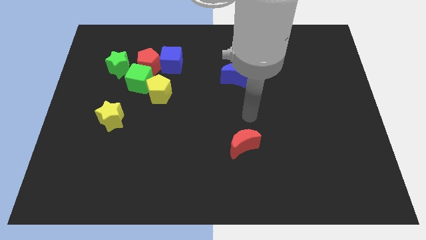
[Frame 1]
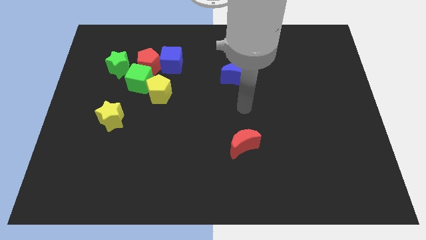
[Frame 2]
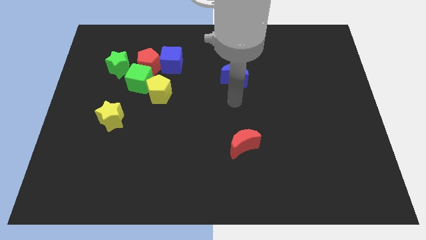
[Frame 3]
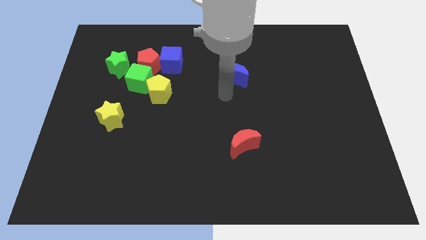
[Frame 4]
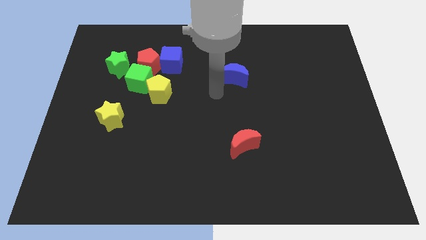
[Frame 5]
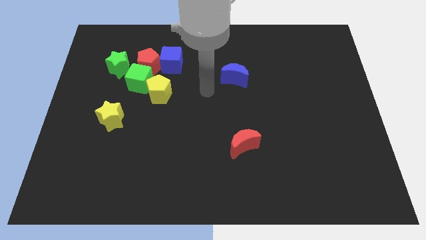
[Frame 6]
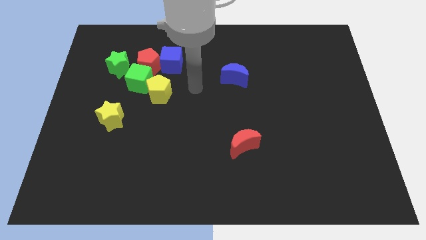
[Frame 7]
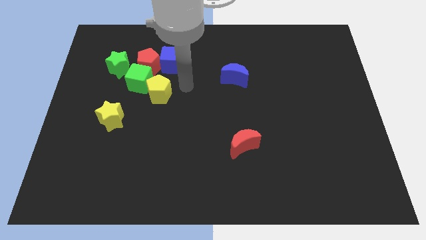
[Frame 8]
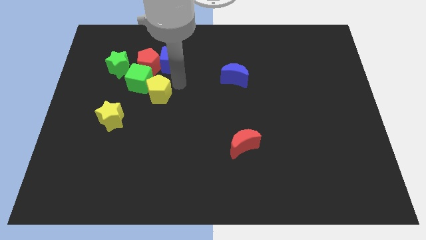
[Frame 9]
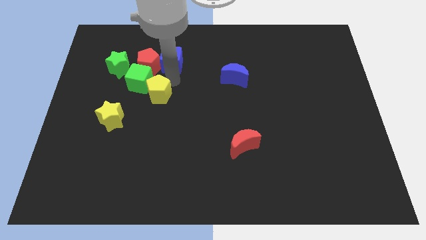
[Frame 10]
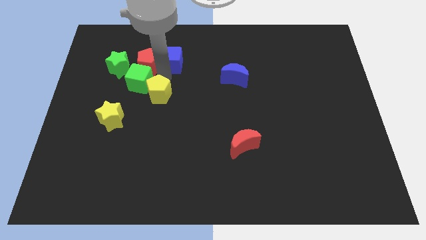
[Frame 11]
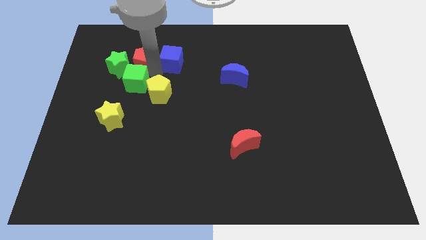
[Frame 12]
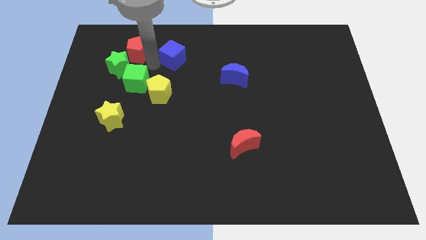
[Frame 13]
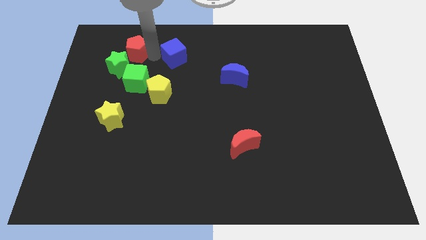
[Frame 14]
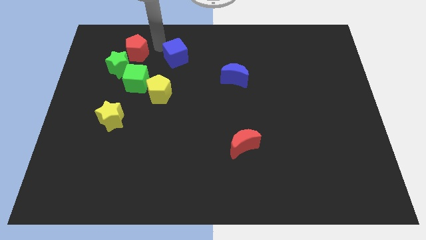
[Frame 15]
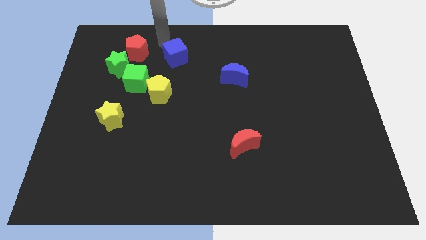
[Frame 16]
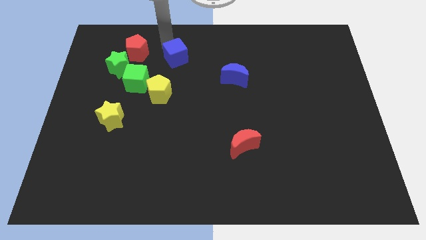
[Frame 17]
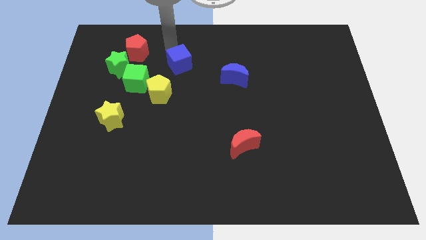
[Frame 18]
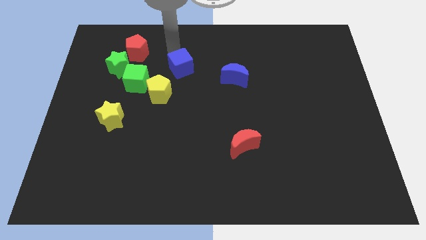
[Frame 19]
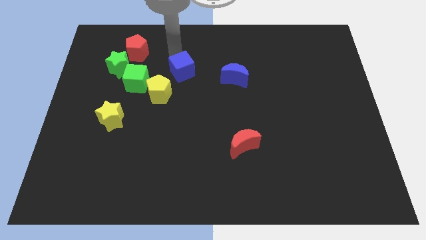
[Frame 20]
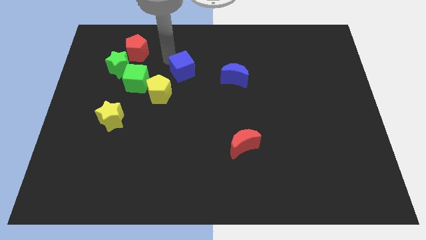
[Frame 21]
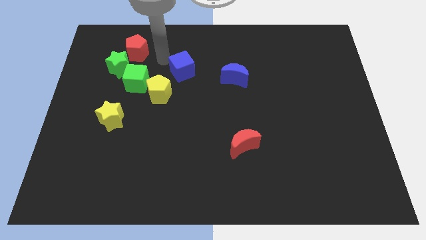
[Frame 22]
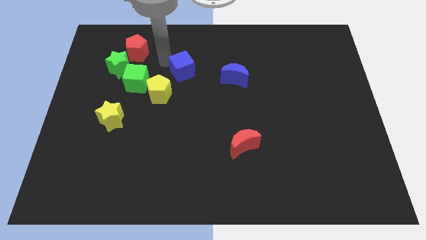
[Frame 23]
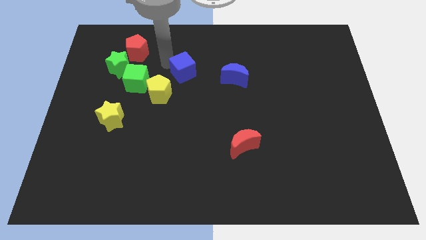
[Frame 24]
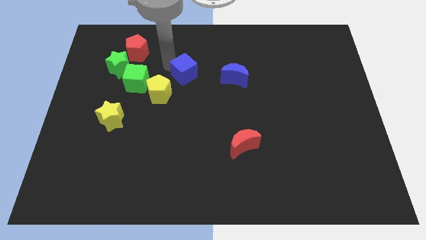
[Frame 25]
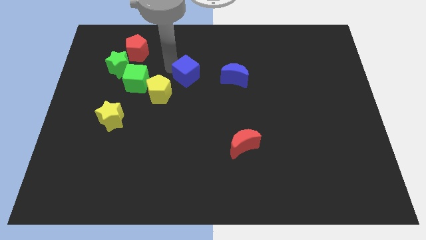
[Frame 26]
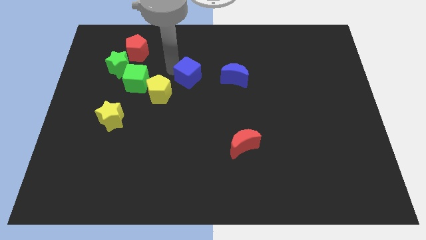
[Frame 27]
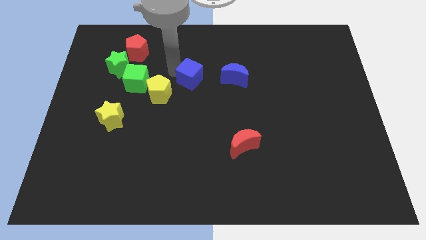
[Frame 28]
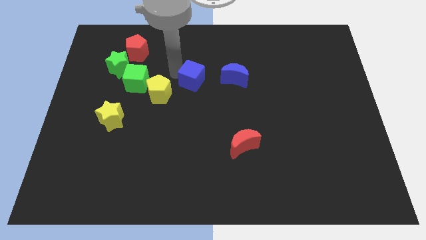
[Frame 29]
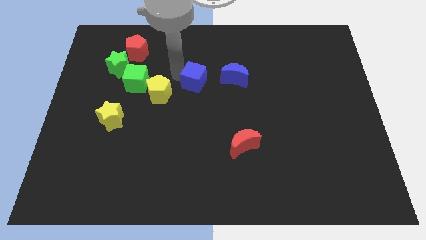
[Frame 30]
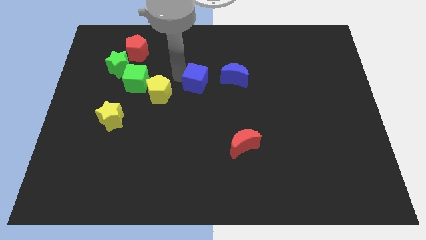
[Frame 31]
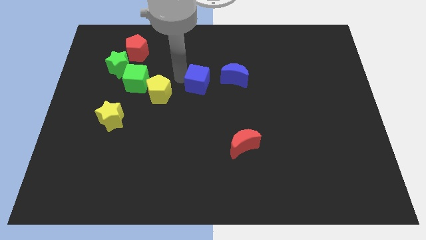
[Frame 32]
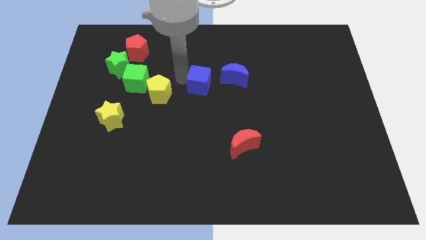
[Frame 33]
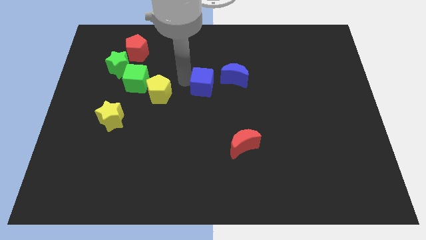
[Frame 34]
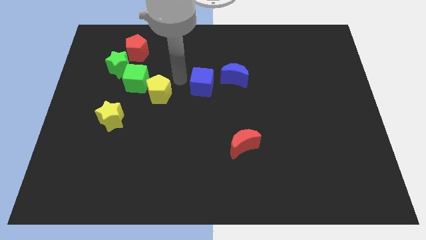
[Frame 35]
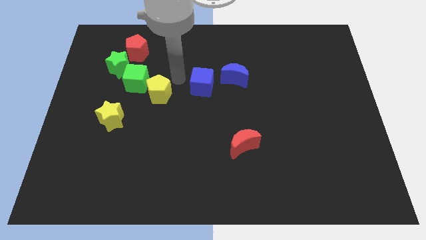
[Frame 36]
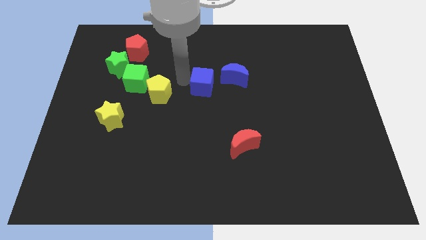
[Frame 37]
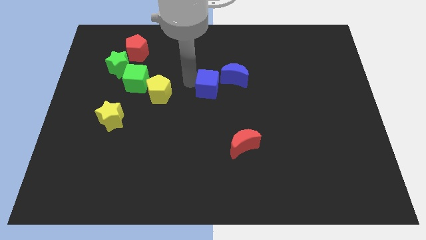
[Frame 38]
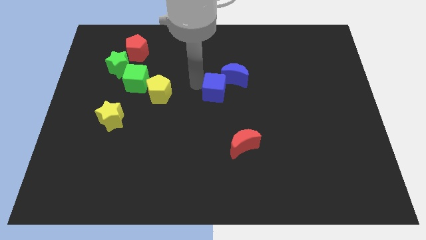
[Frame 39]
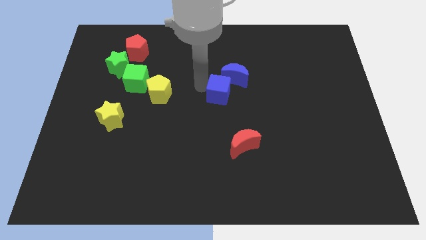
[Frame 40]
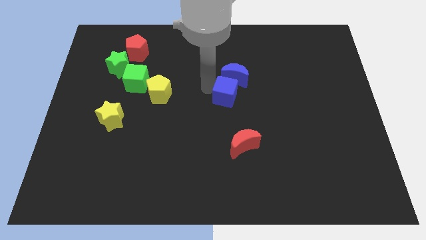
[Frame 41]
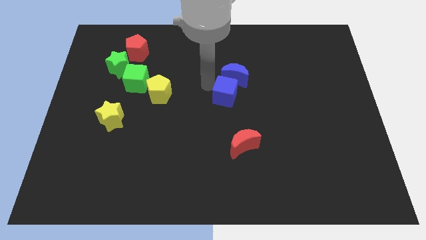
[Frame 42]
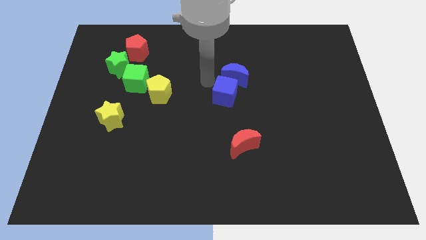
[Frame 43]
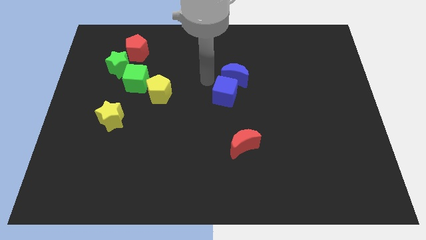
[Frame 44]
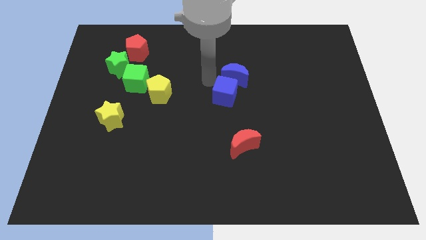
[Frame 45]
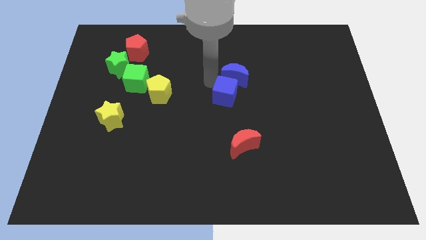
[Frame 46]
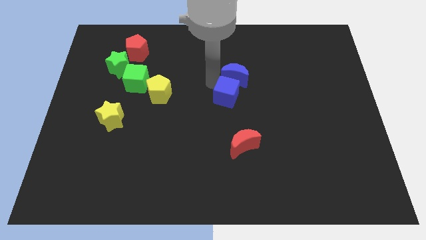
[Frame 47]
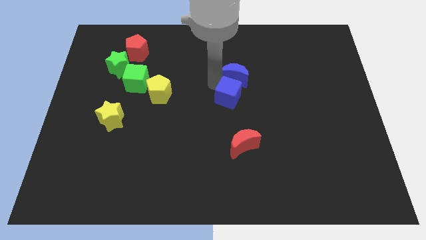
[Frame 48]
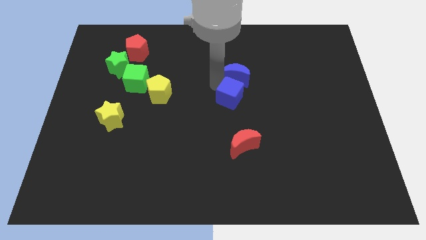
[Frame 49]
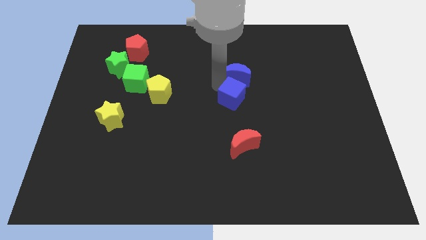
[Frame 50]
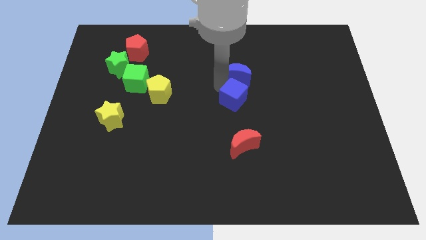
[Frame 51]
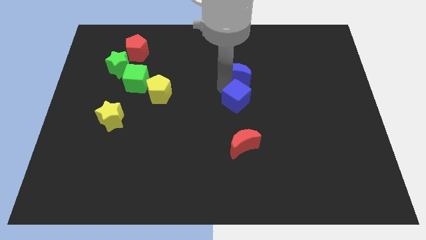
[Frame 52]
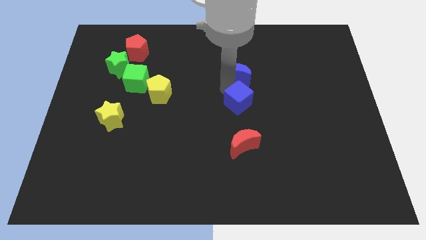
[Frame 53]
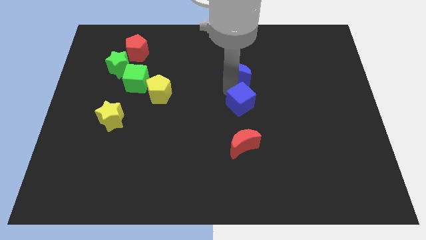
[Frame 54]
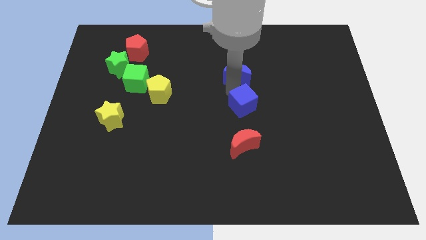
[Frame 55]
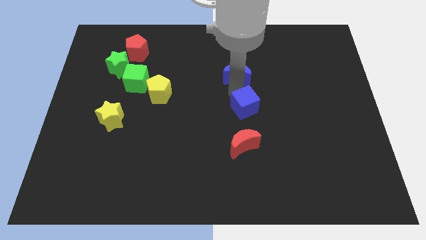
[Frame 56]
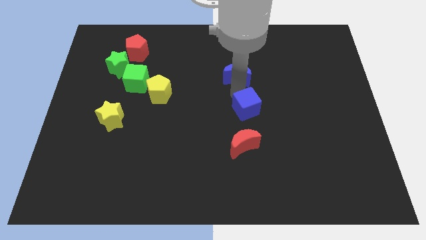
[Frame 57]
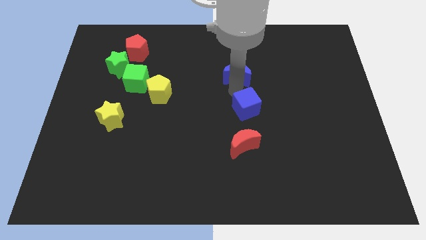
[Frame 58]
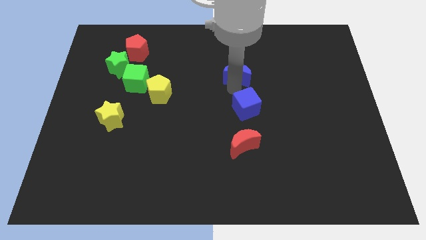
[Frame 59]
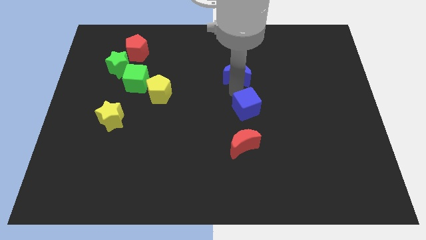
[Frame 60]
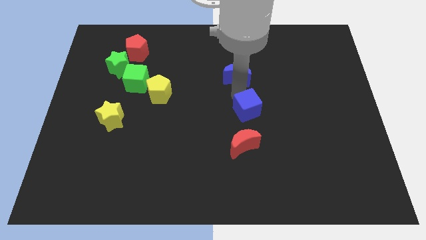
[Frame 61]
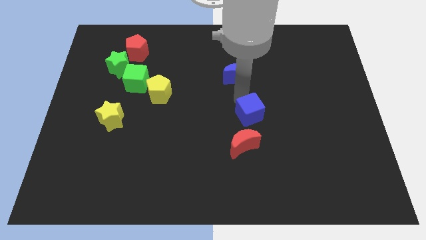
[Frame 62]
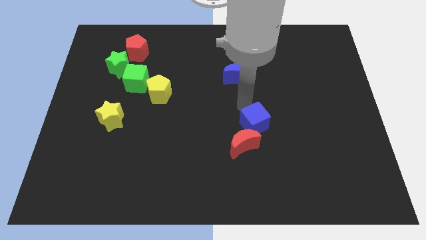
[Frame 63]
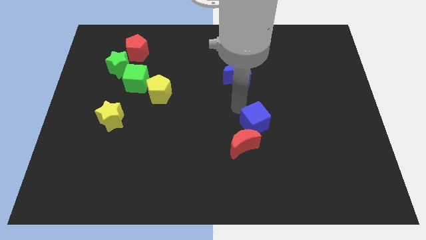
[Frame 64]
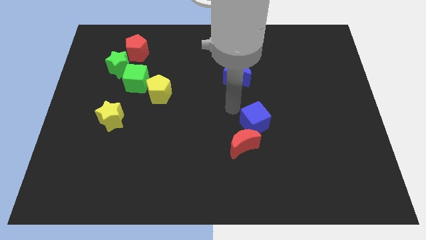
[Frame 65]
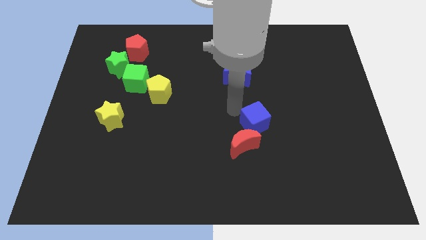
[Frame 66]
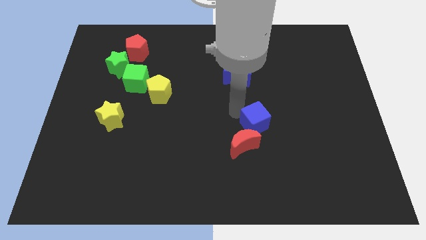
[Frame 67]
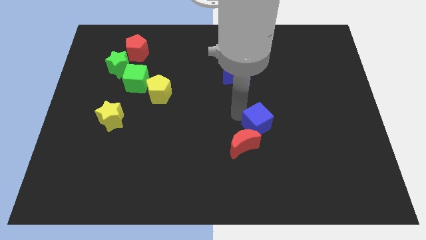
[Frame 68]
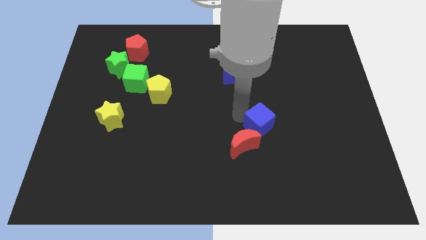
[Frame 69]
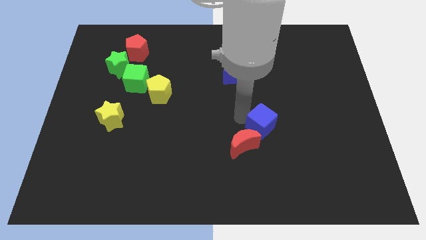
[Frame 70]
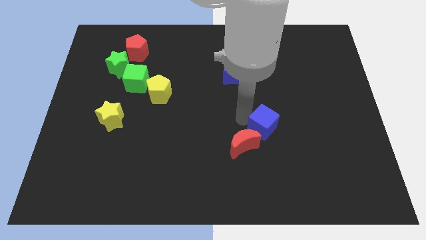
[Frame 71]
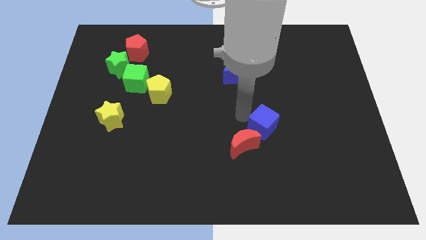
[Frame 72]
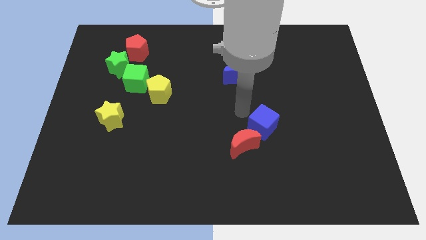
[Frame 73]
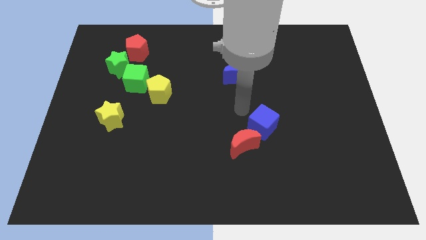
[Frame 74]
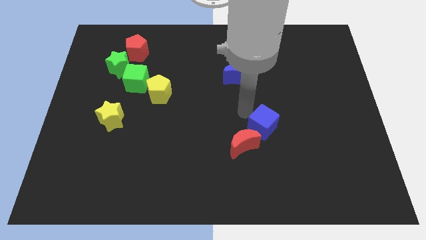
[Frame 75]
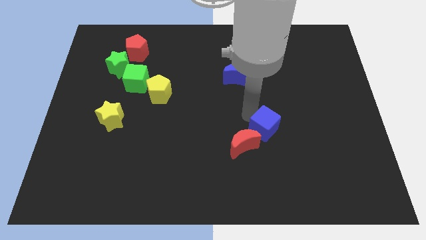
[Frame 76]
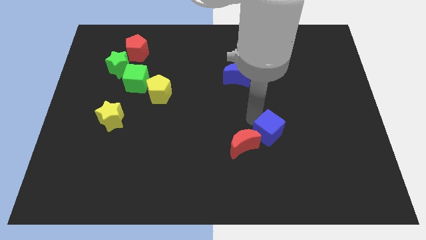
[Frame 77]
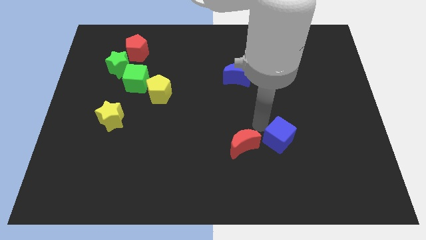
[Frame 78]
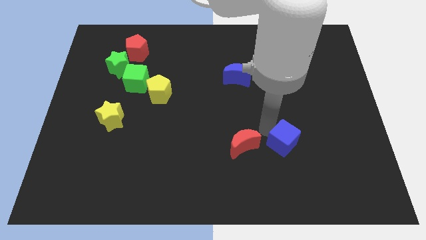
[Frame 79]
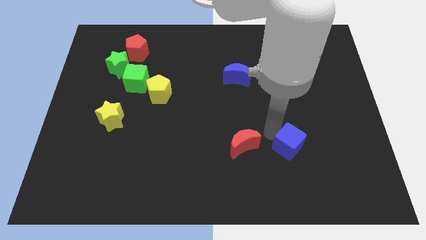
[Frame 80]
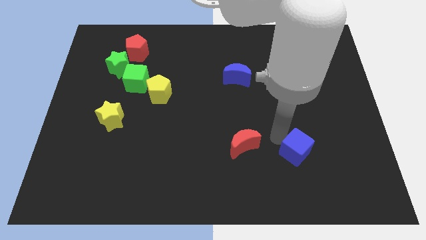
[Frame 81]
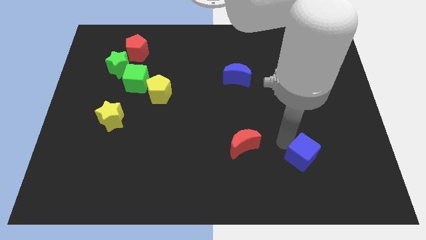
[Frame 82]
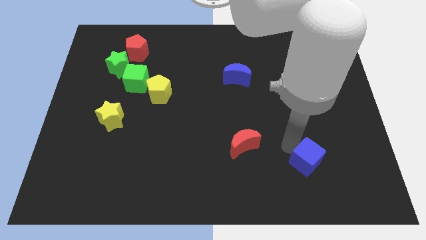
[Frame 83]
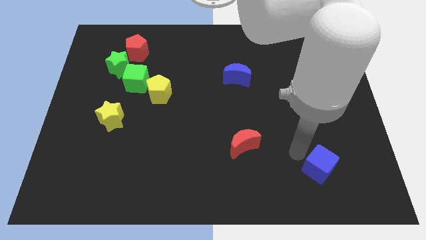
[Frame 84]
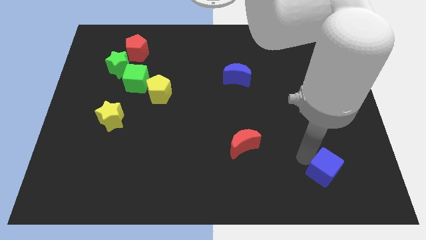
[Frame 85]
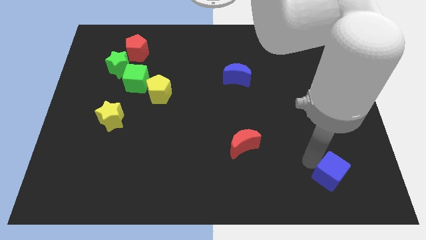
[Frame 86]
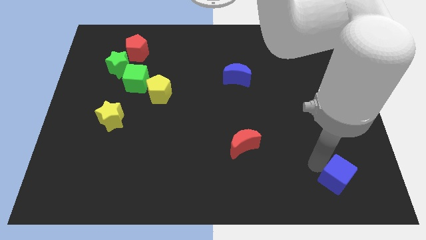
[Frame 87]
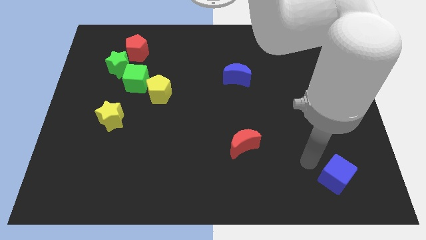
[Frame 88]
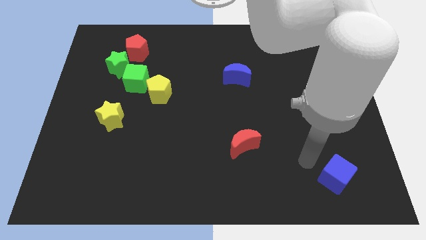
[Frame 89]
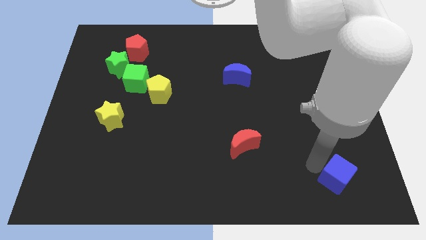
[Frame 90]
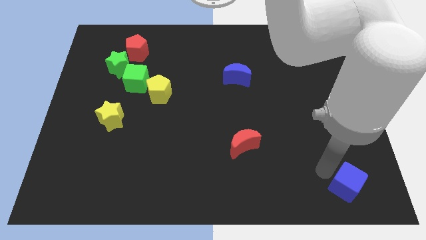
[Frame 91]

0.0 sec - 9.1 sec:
move the blue cube to the bottom right
